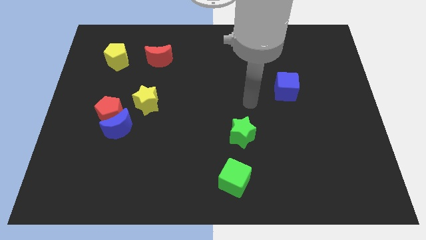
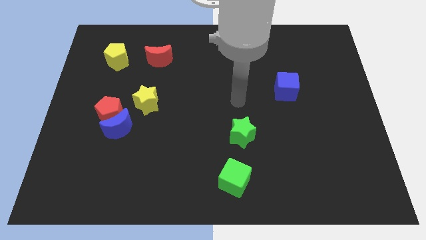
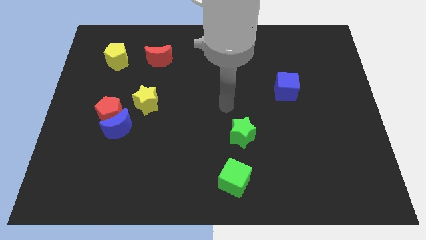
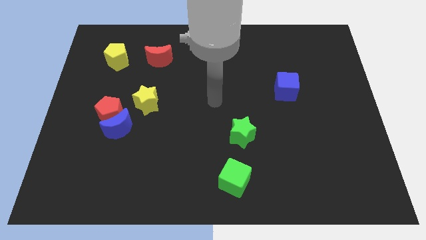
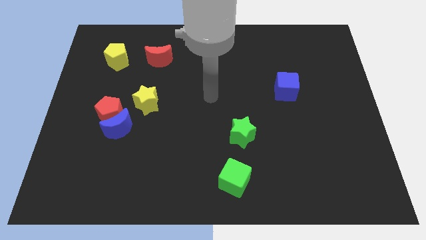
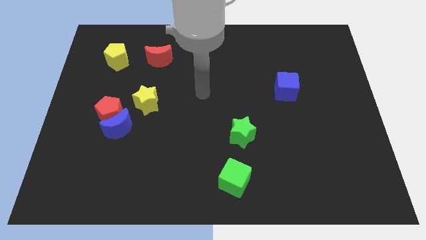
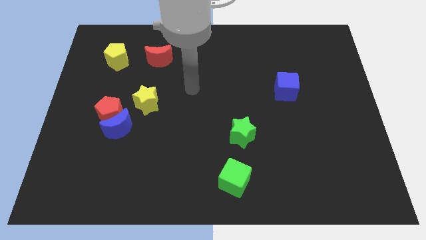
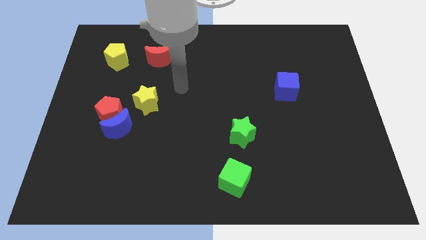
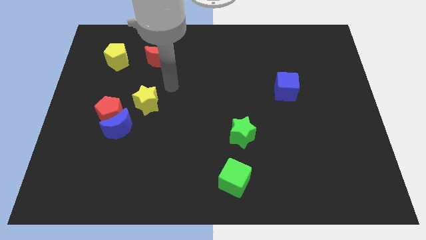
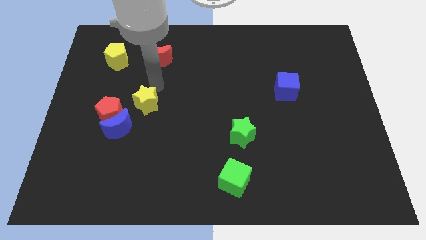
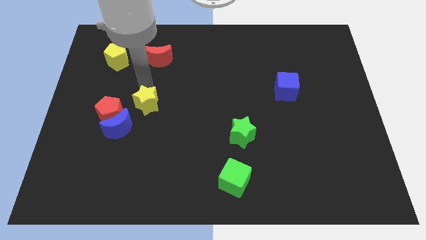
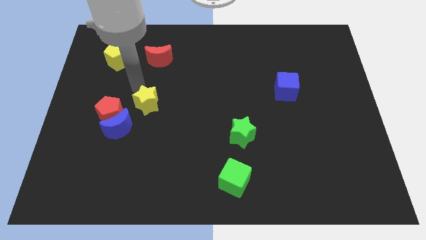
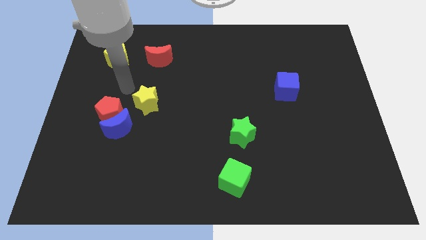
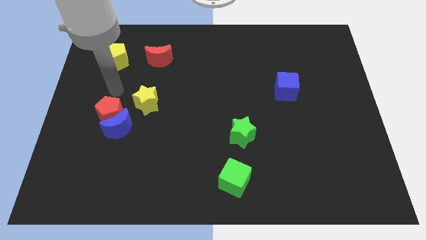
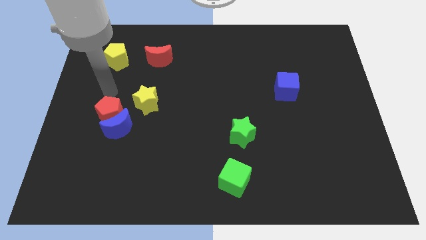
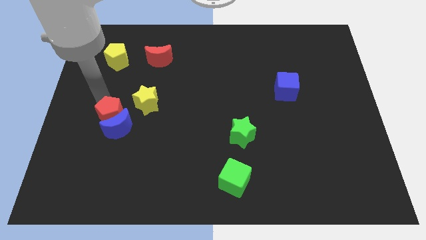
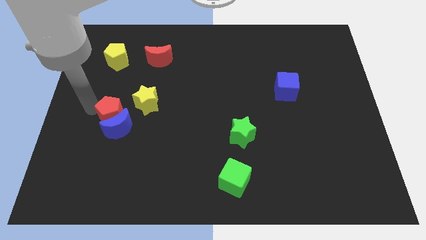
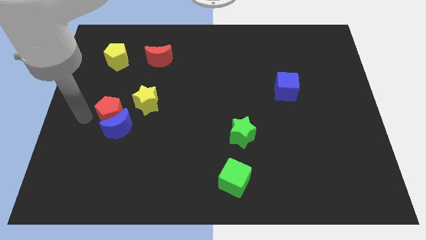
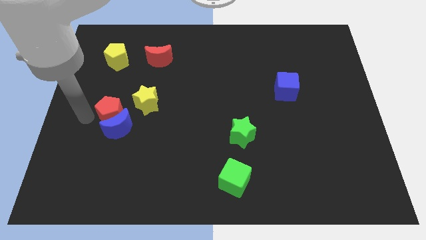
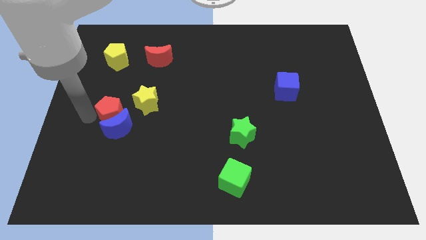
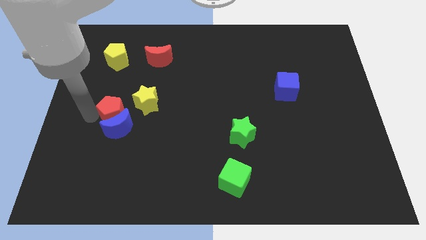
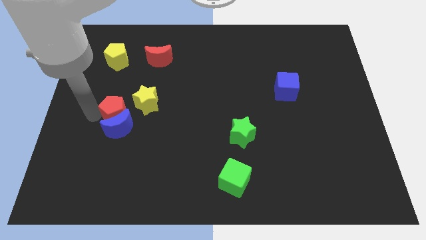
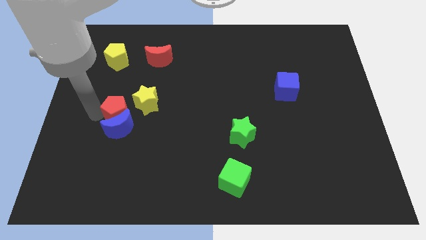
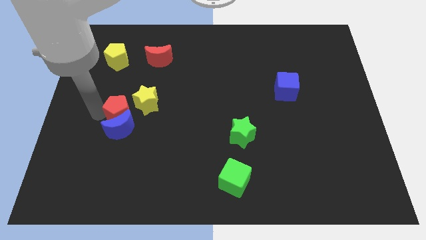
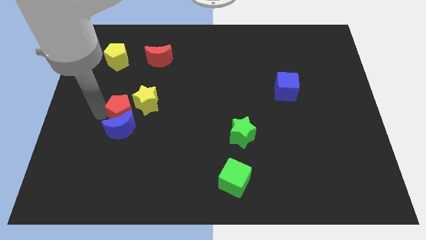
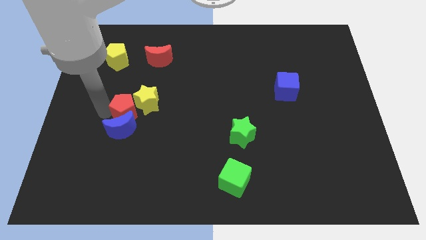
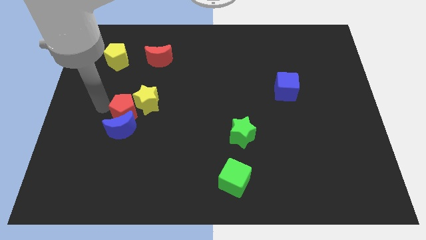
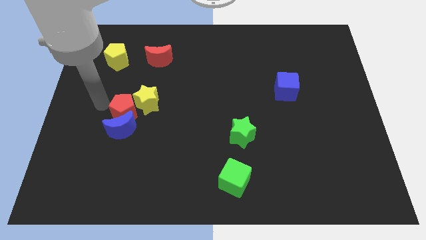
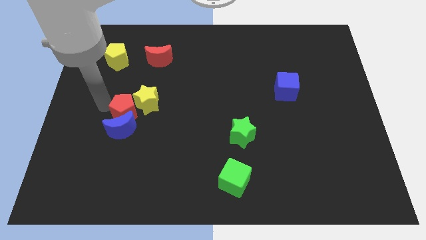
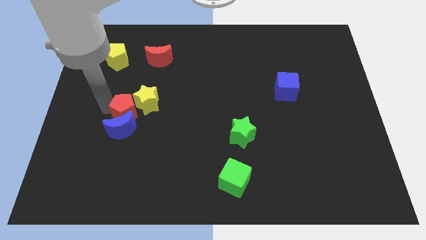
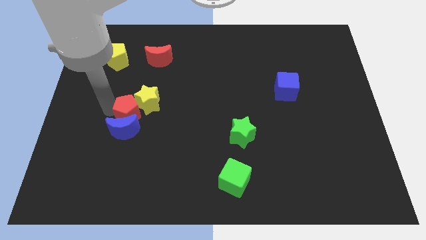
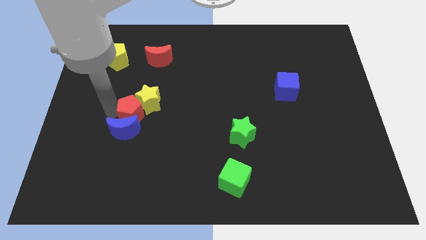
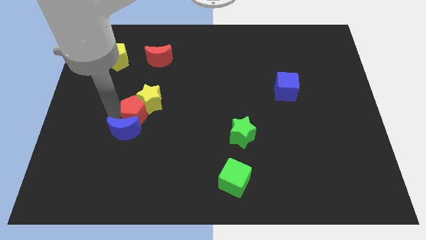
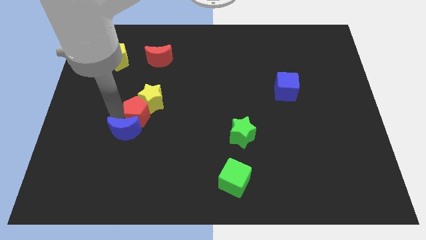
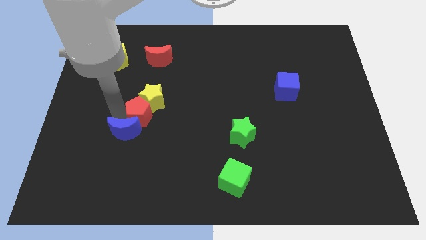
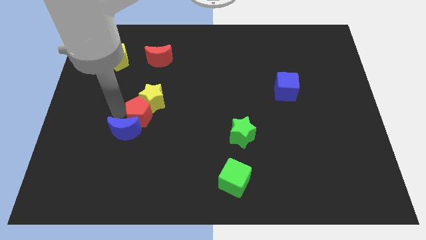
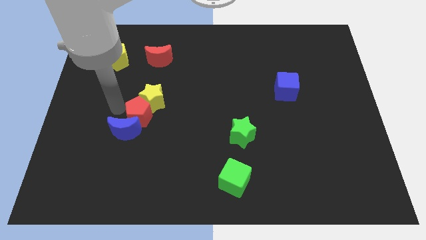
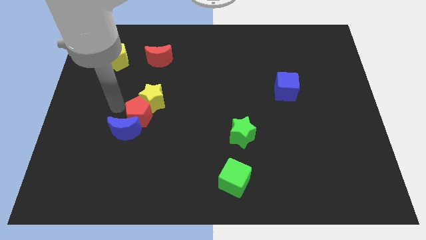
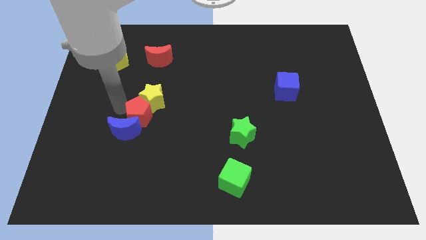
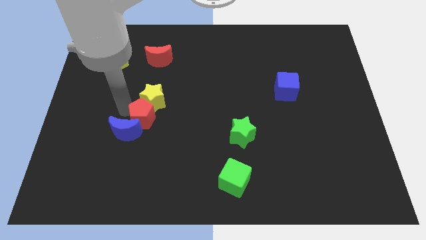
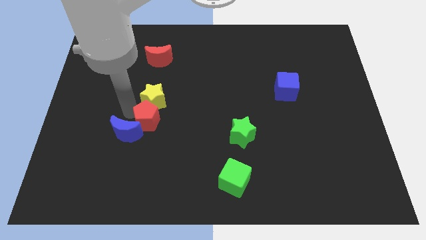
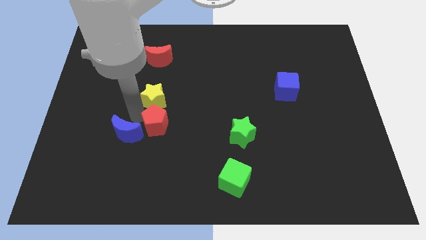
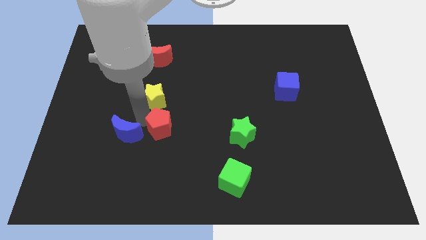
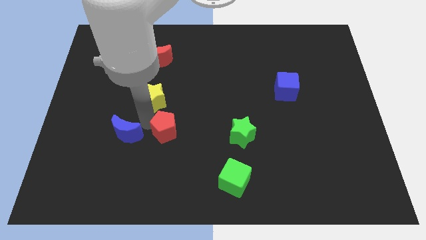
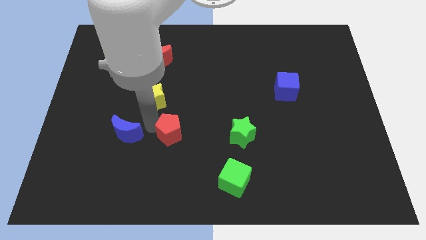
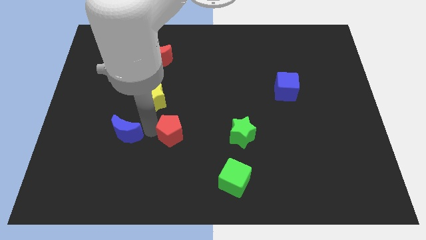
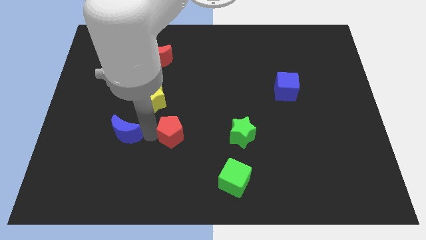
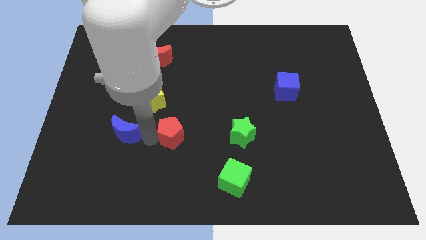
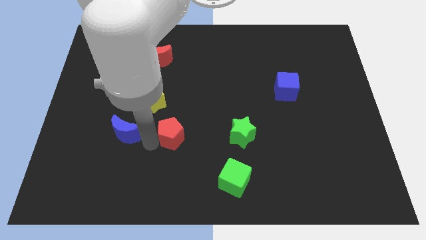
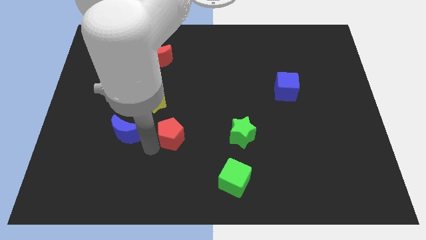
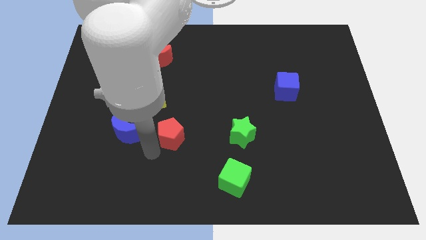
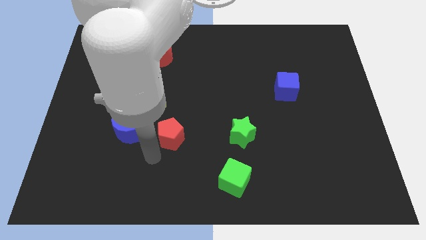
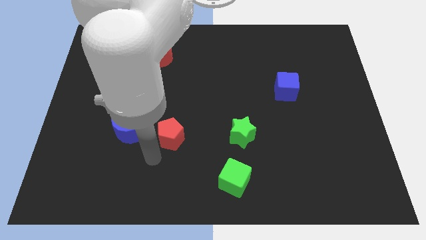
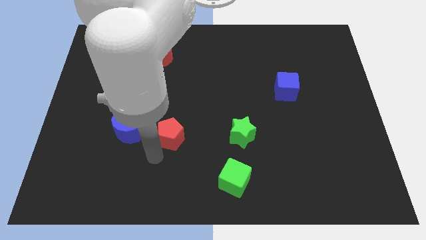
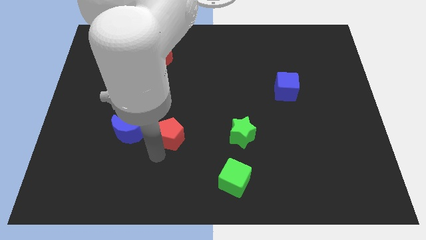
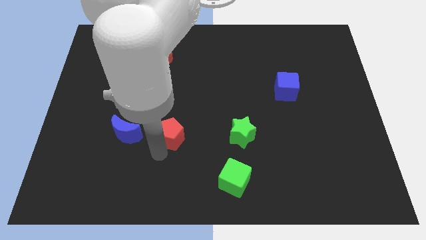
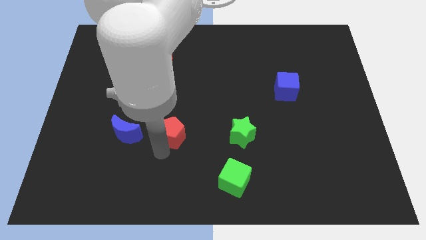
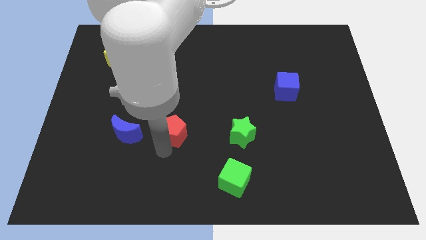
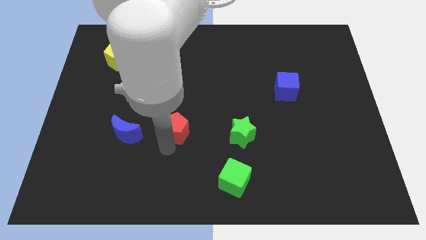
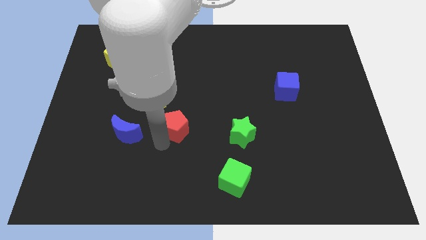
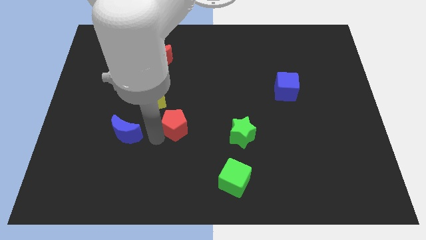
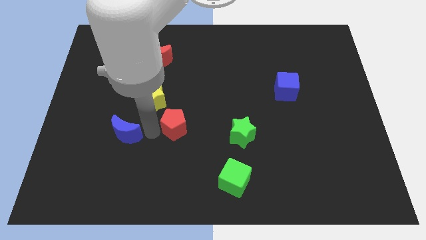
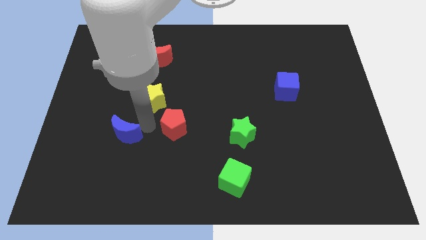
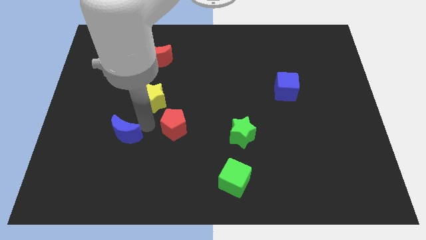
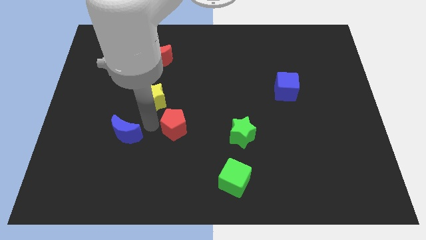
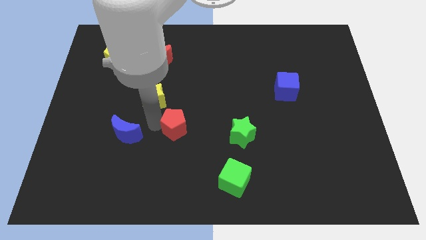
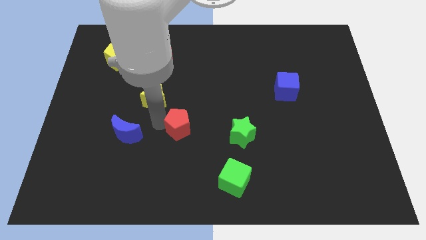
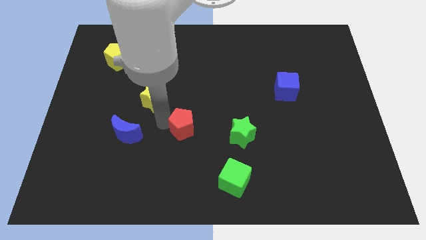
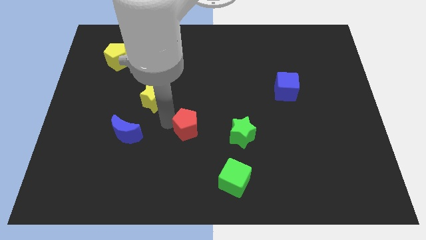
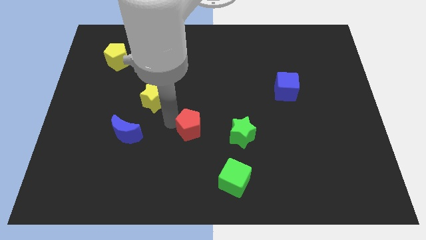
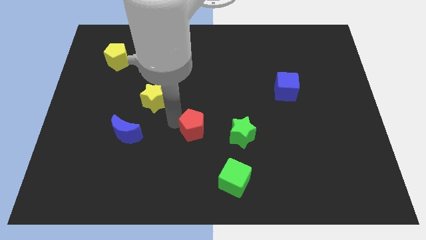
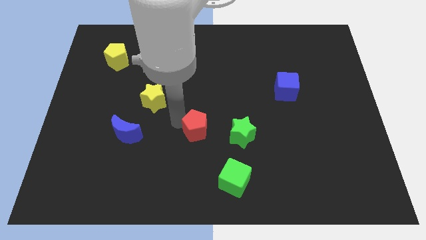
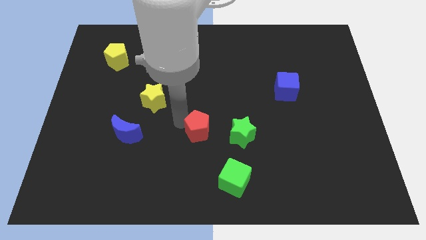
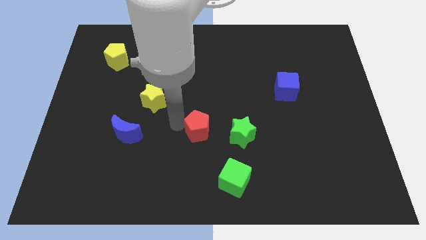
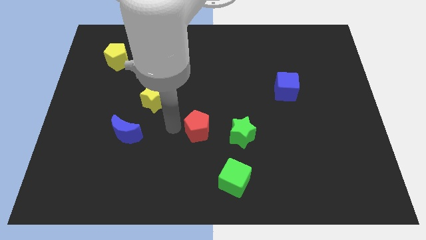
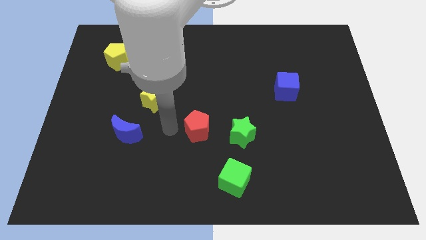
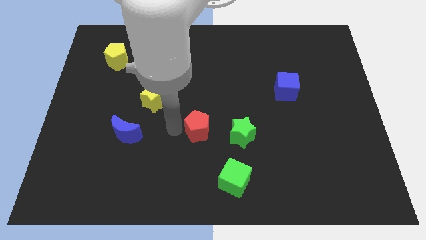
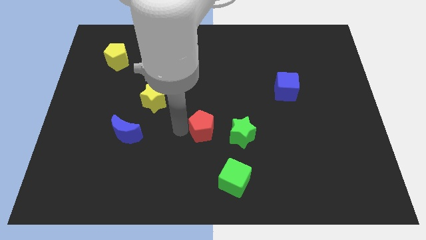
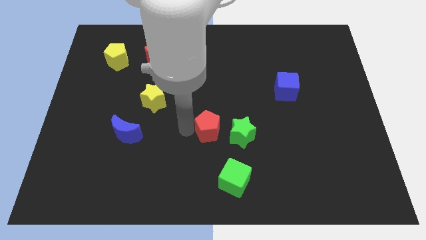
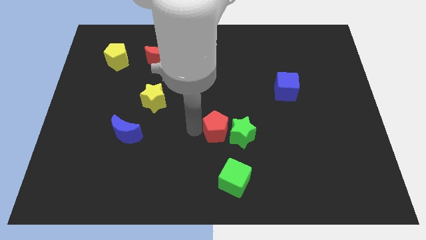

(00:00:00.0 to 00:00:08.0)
slide the red pentagon to the green star
